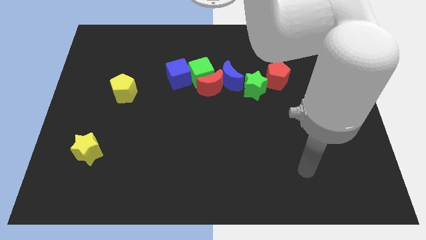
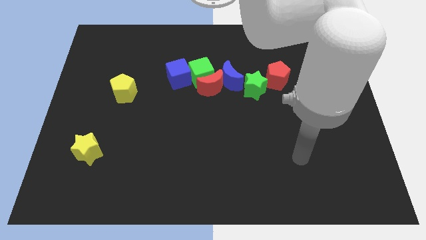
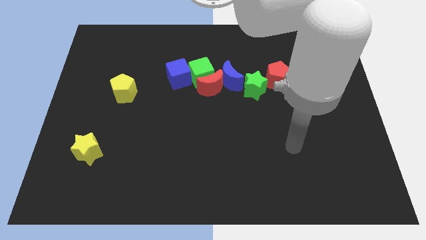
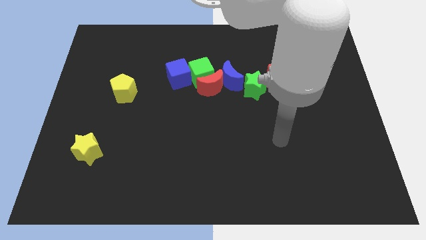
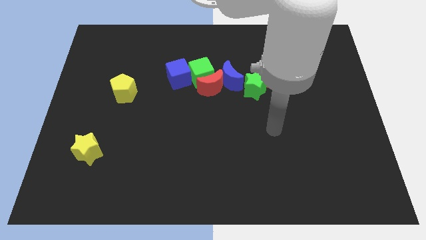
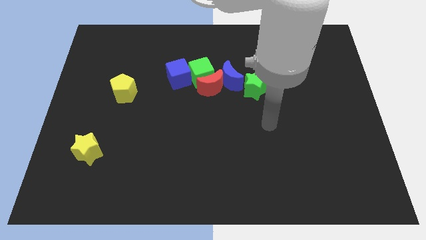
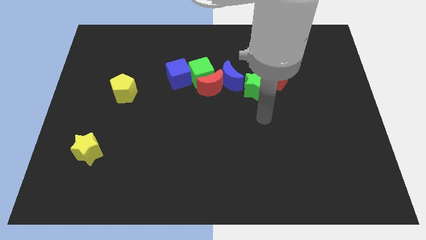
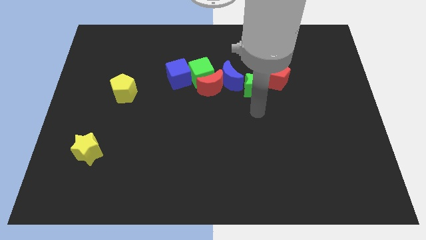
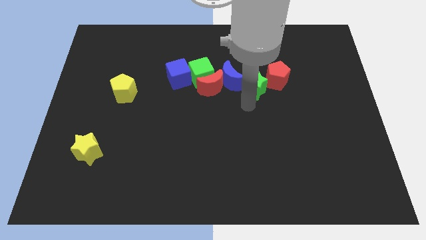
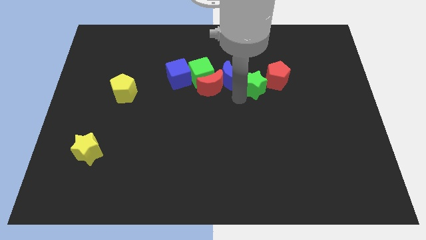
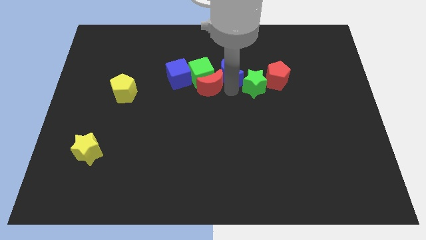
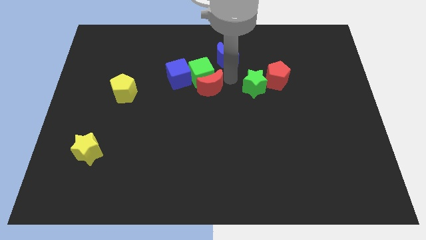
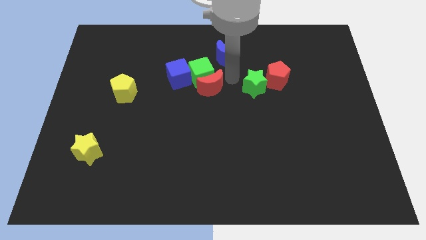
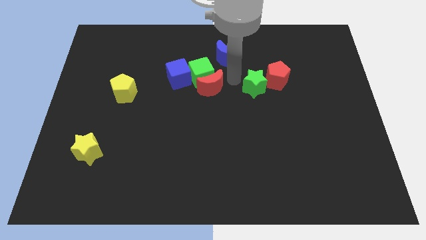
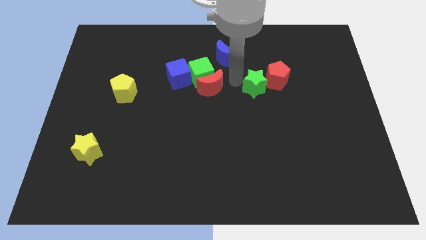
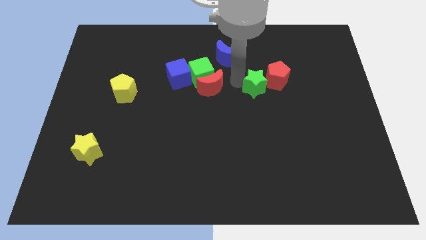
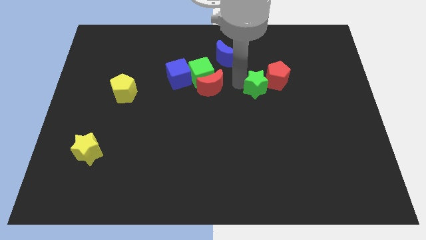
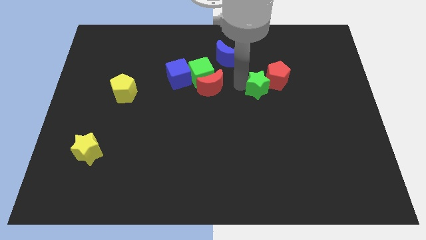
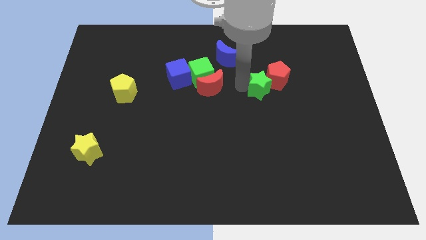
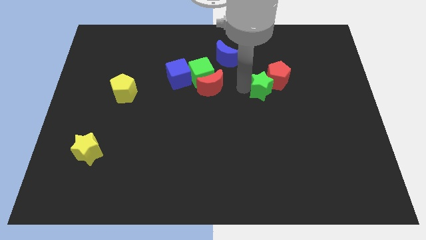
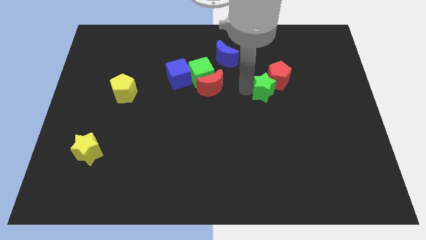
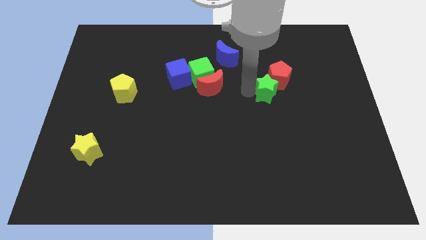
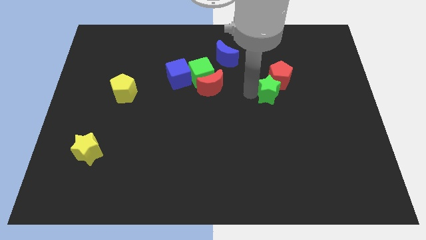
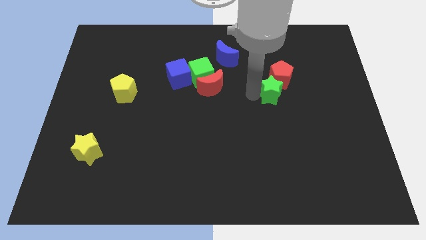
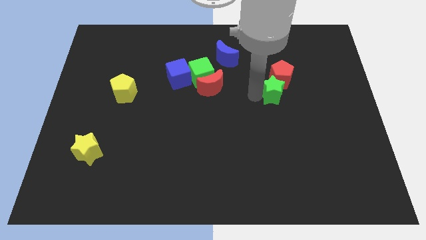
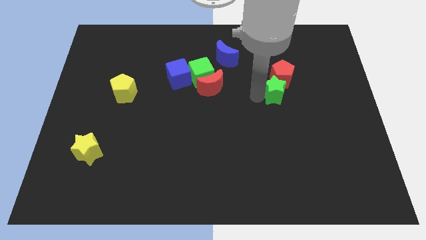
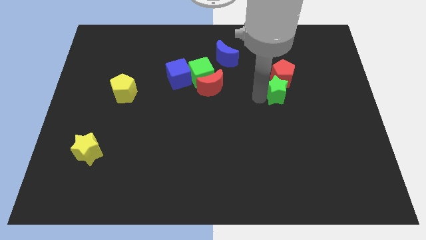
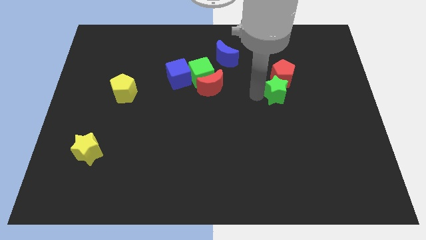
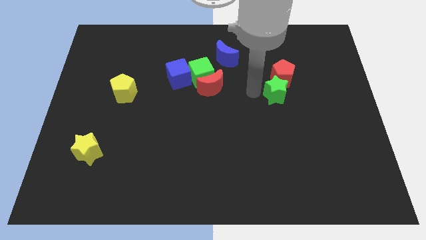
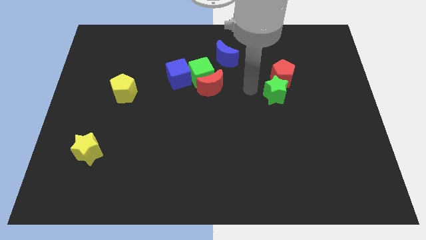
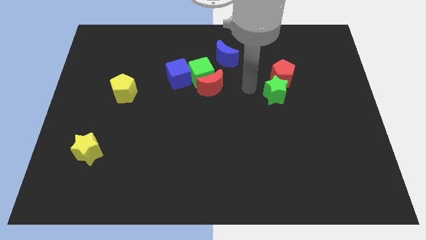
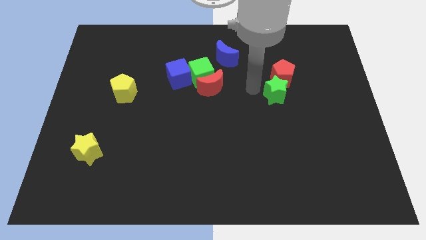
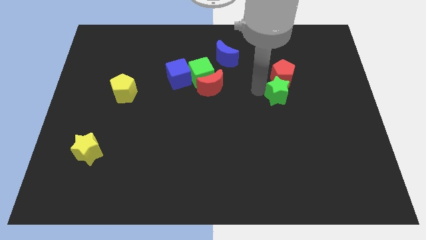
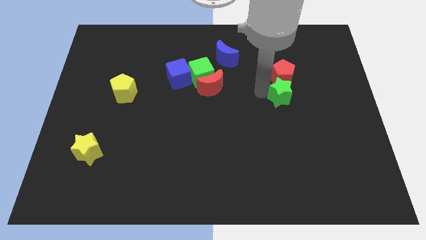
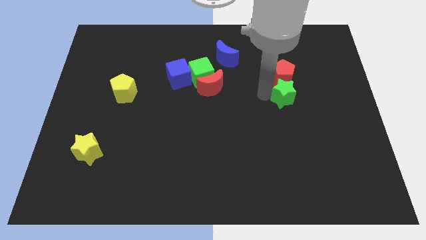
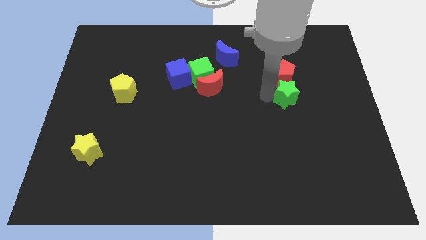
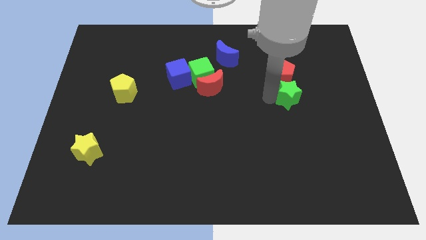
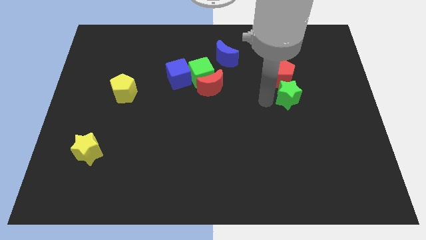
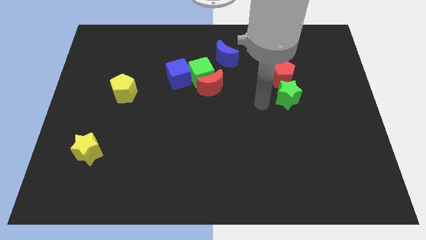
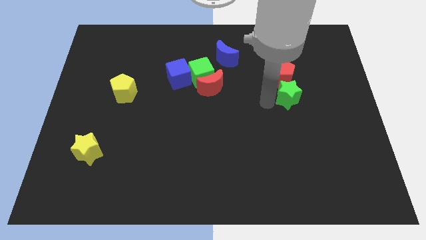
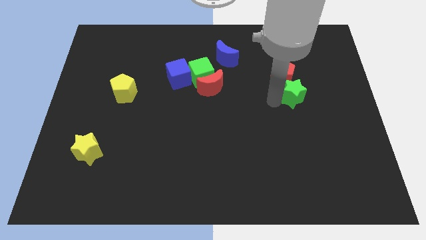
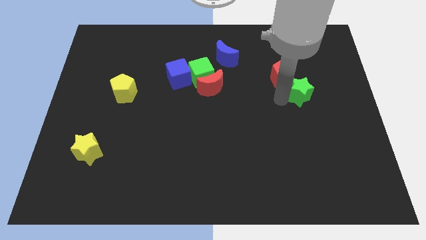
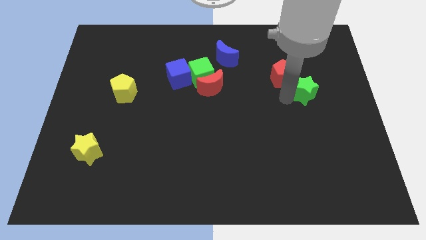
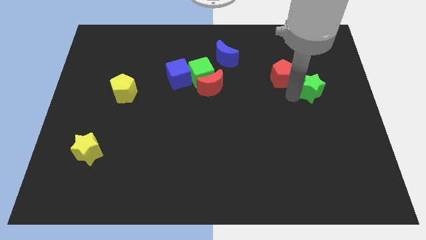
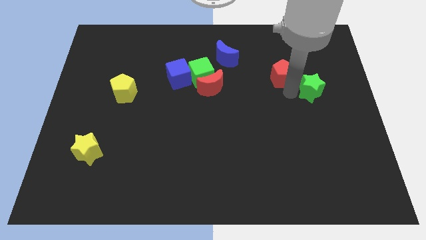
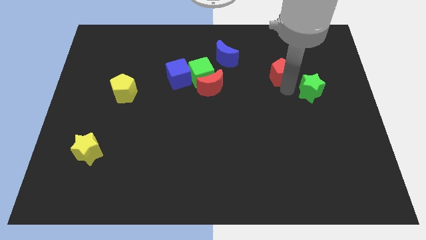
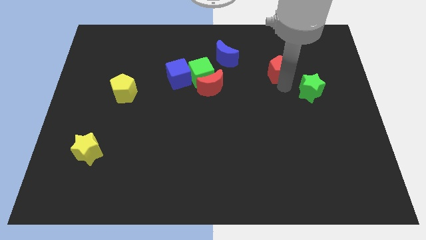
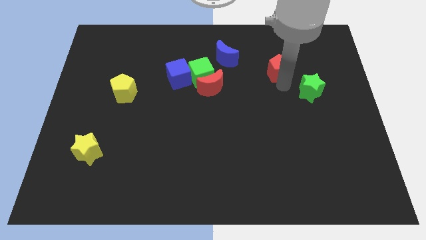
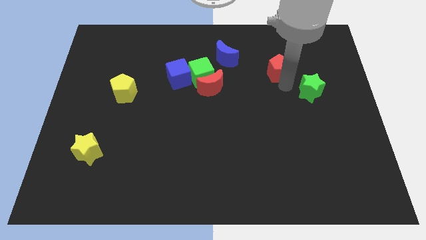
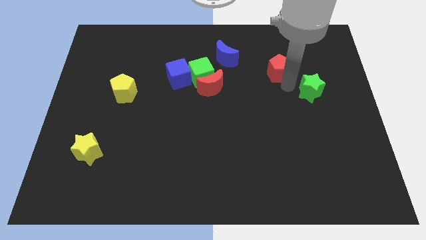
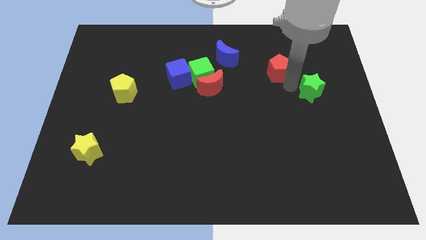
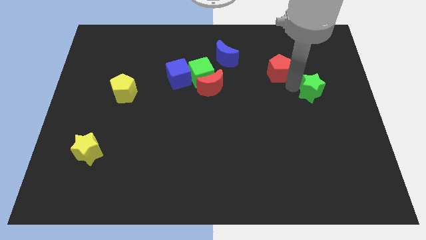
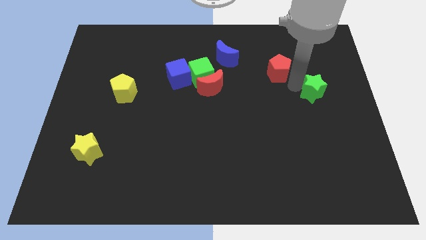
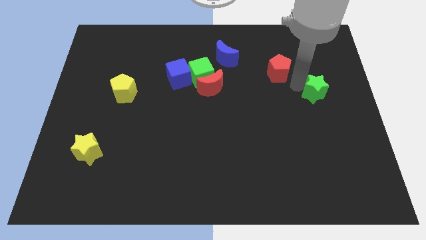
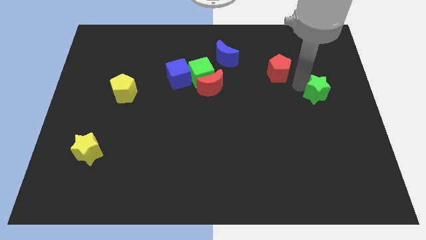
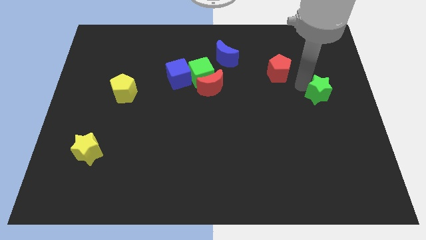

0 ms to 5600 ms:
put the green star to the center right

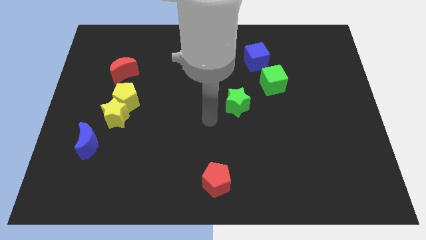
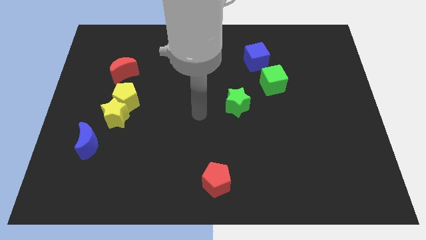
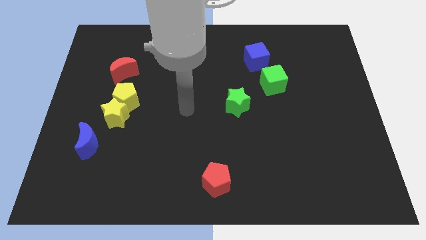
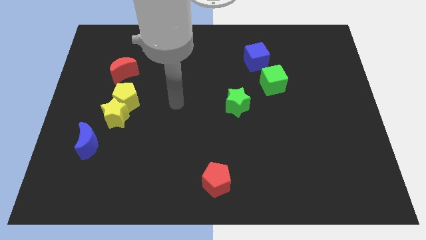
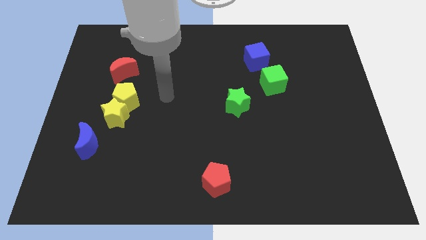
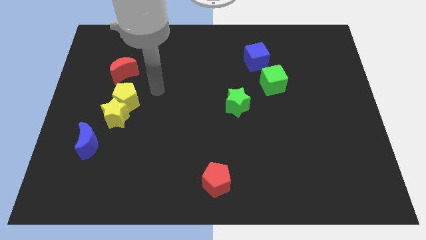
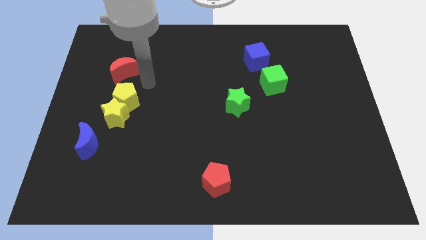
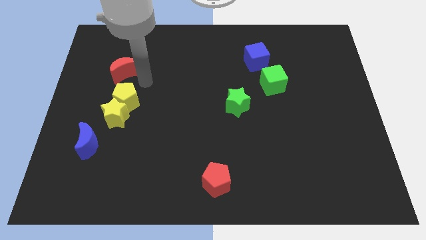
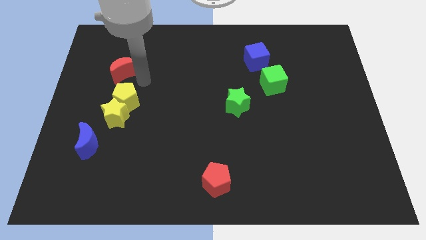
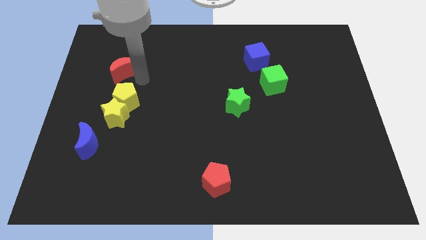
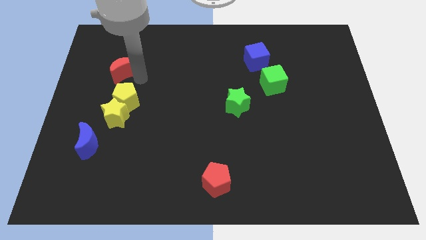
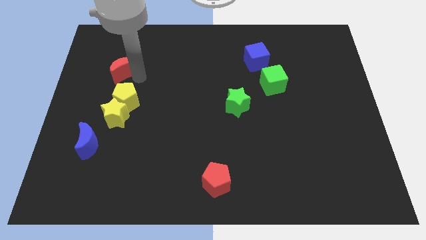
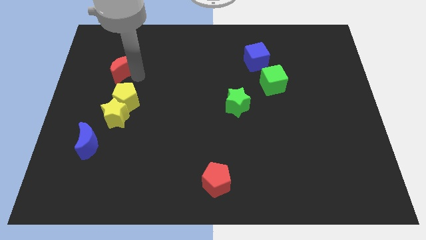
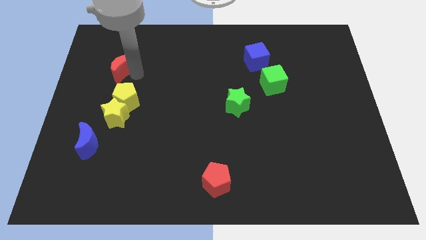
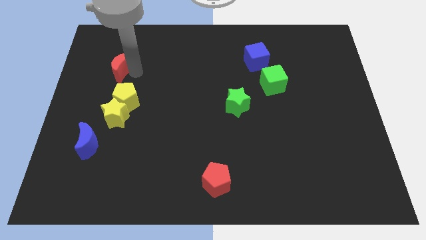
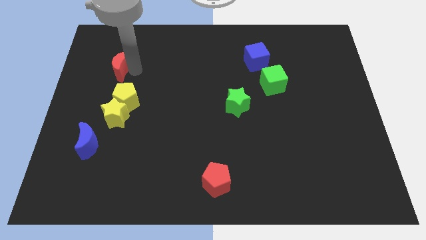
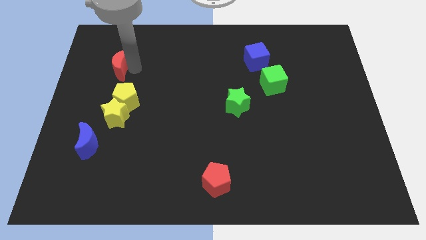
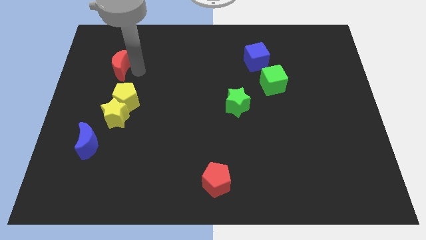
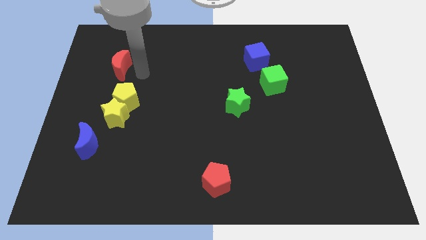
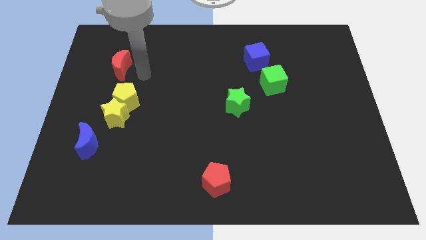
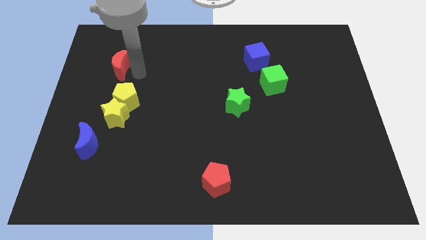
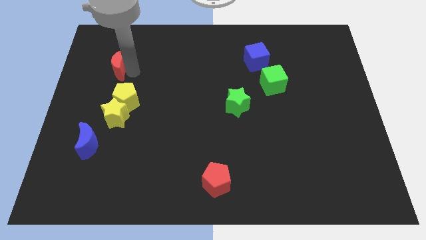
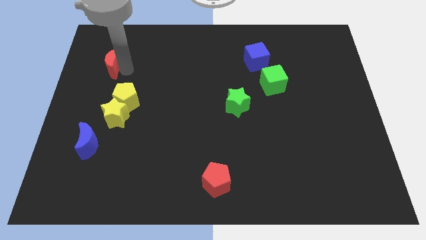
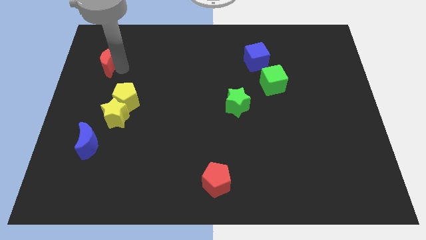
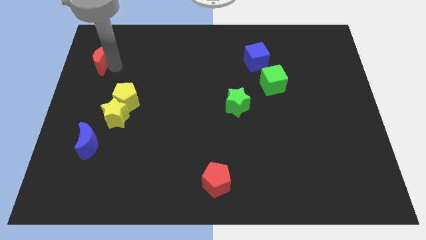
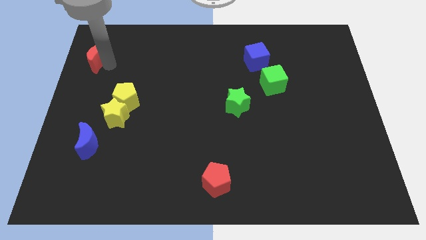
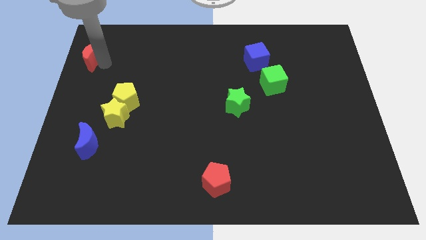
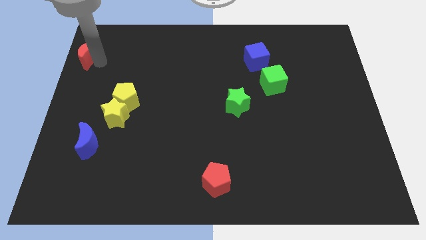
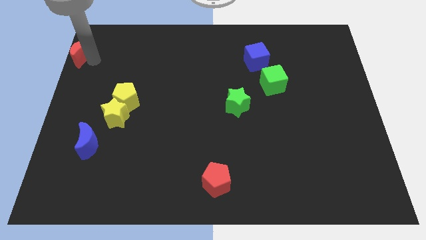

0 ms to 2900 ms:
push the red moon to the top left
